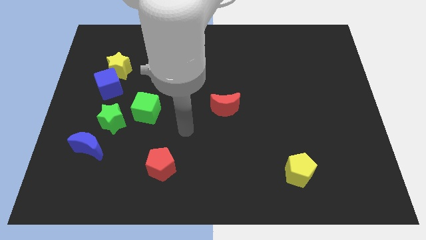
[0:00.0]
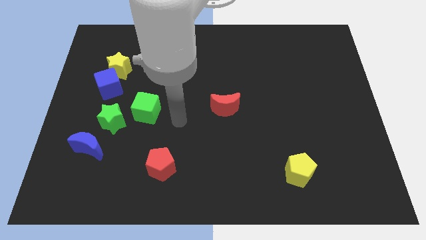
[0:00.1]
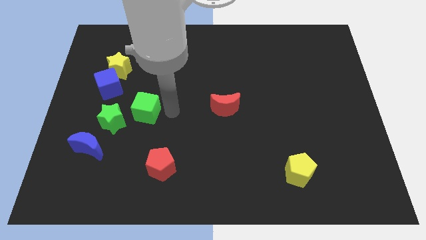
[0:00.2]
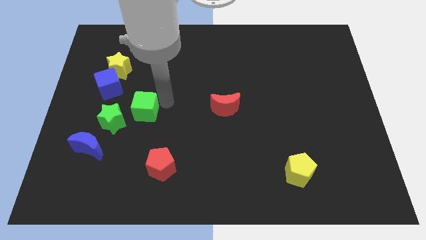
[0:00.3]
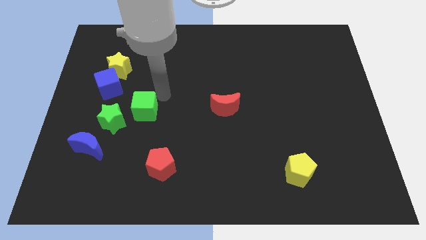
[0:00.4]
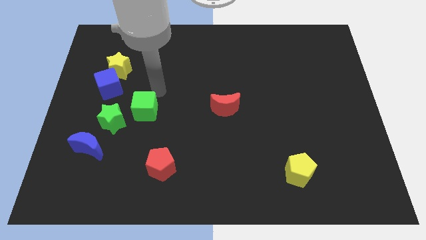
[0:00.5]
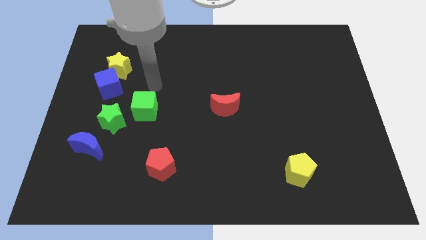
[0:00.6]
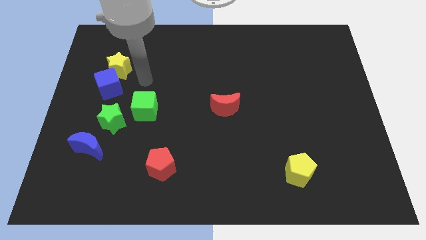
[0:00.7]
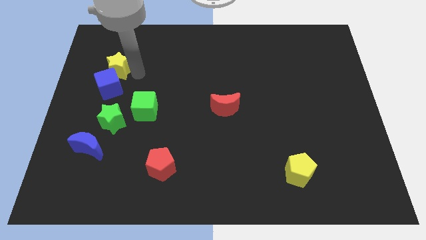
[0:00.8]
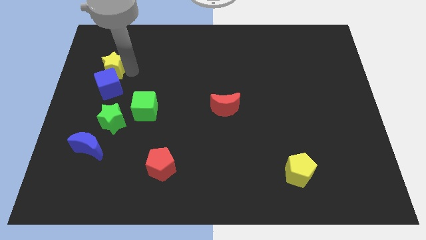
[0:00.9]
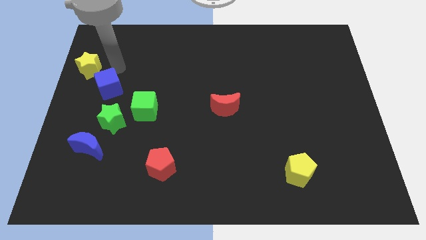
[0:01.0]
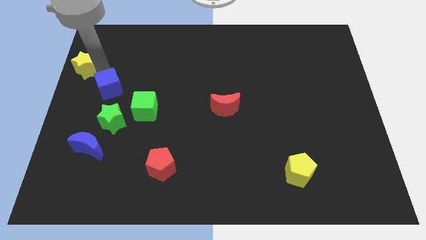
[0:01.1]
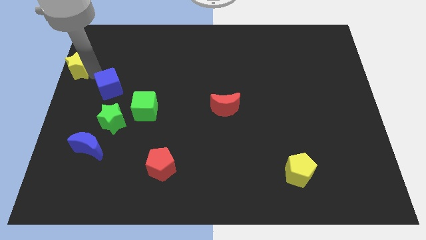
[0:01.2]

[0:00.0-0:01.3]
separate the blue cube from the yellow star

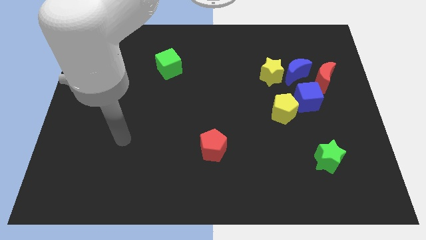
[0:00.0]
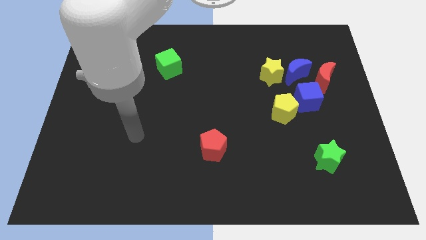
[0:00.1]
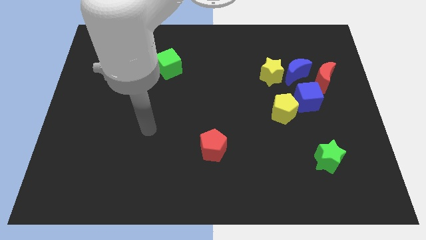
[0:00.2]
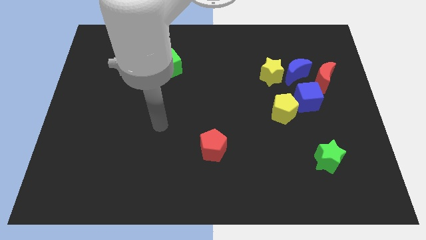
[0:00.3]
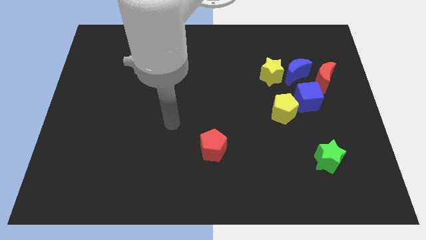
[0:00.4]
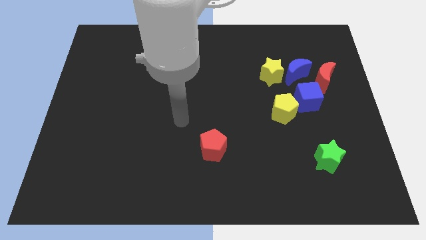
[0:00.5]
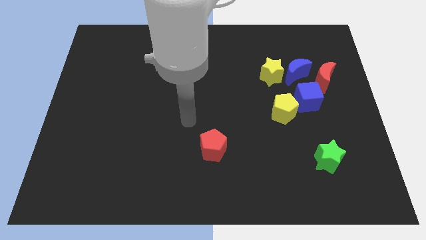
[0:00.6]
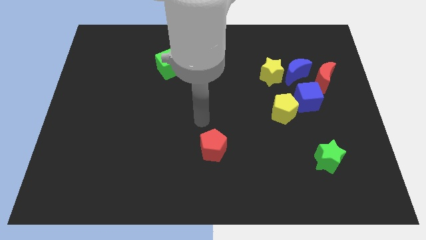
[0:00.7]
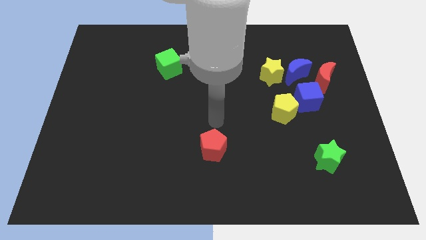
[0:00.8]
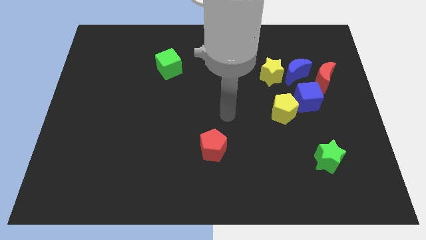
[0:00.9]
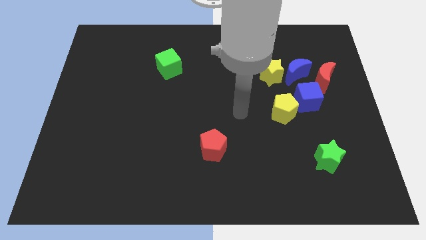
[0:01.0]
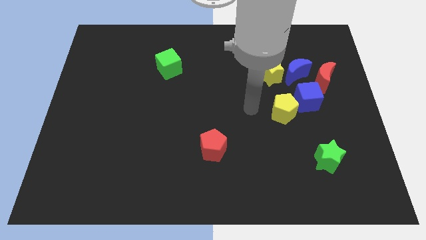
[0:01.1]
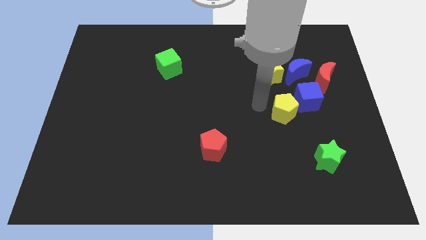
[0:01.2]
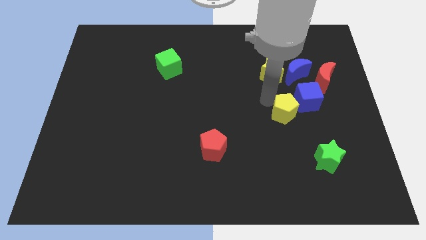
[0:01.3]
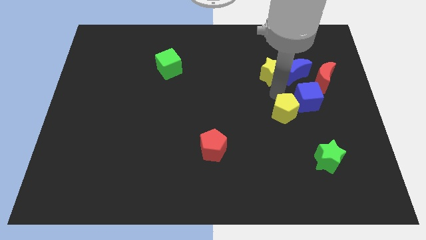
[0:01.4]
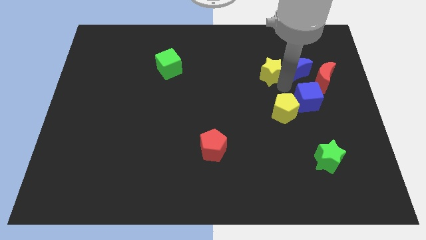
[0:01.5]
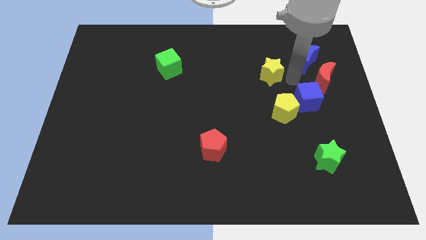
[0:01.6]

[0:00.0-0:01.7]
pull the yellow star apart from the blue moon

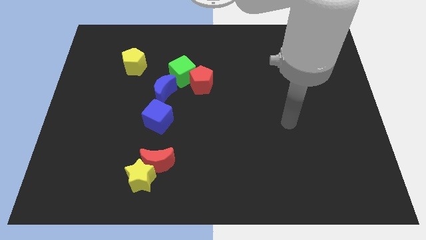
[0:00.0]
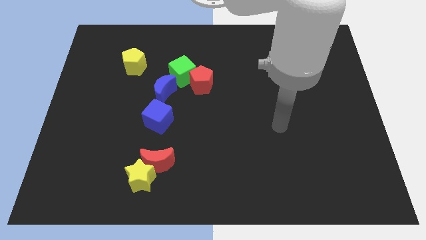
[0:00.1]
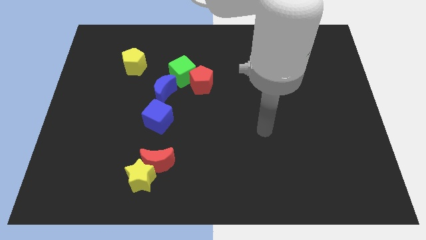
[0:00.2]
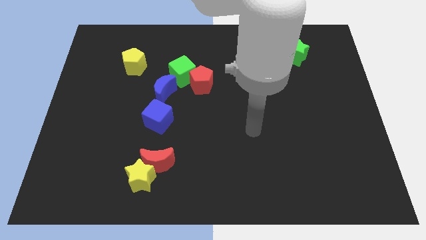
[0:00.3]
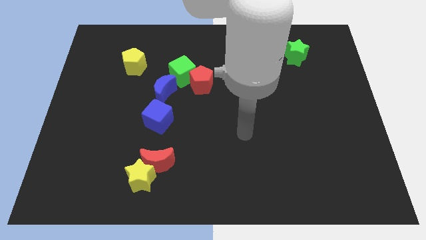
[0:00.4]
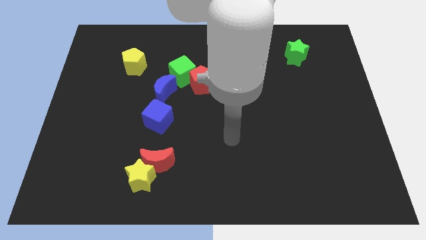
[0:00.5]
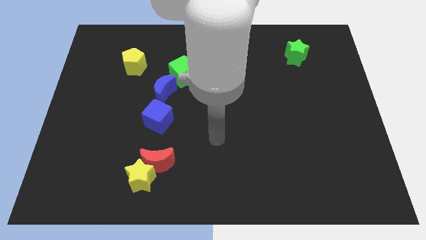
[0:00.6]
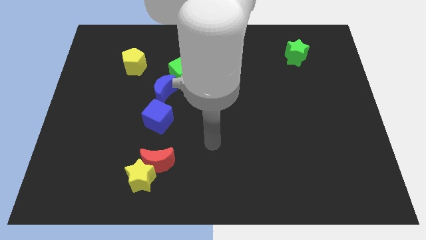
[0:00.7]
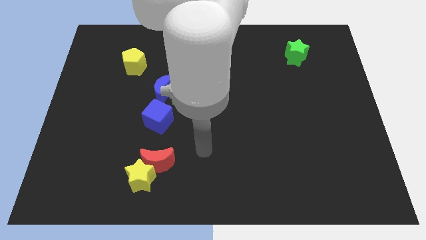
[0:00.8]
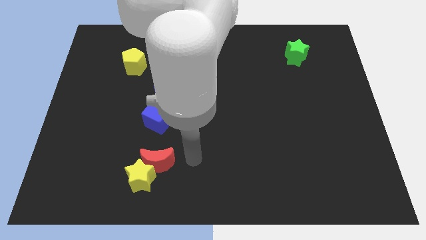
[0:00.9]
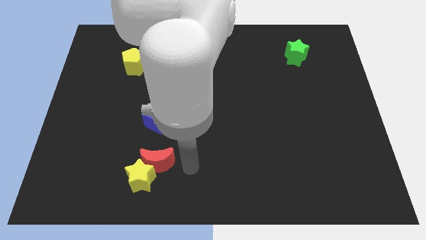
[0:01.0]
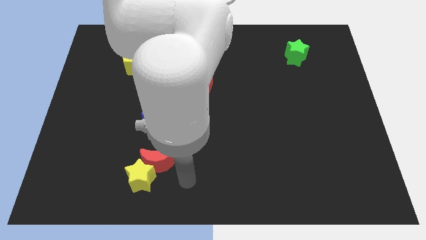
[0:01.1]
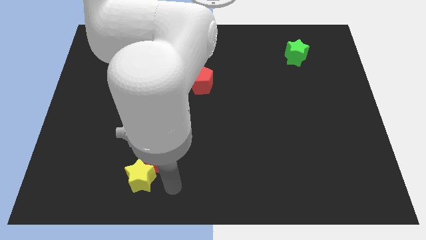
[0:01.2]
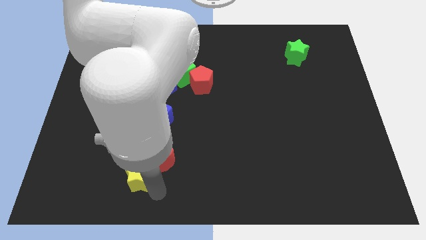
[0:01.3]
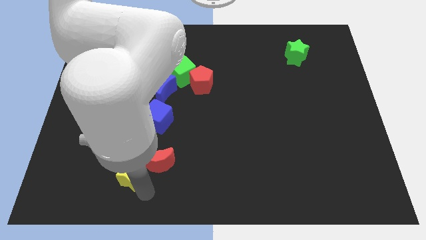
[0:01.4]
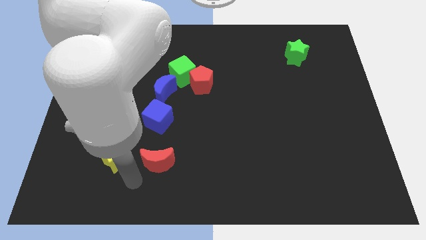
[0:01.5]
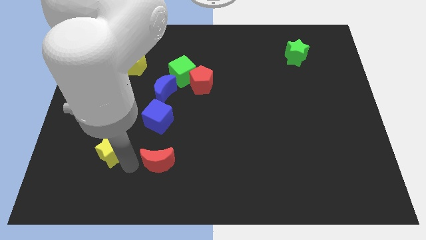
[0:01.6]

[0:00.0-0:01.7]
separate the red moon from the yellow star

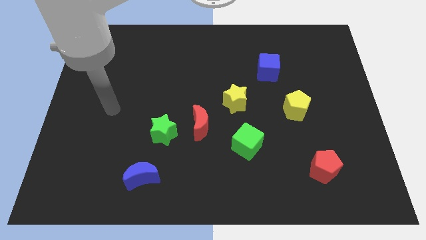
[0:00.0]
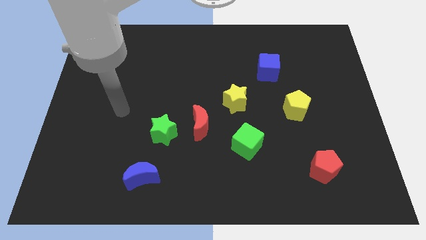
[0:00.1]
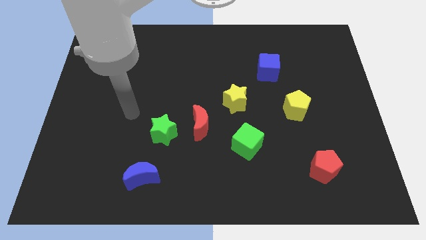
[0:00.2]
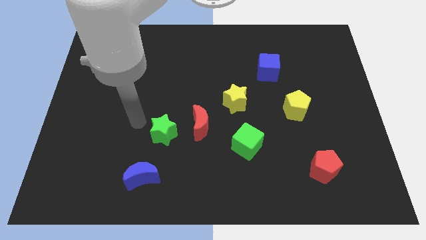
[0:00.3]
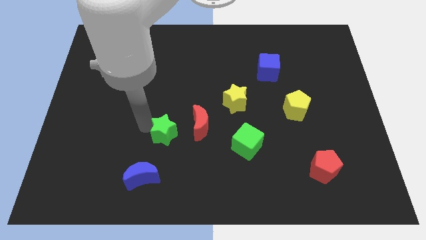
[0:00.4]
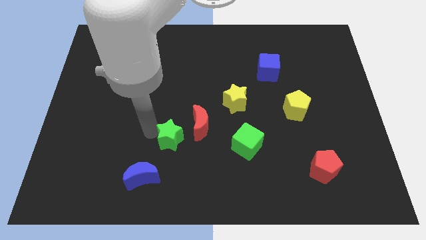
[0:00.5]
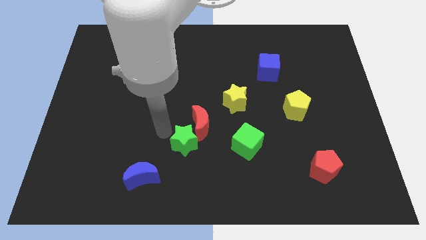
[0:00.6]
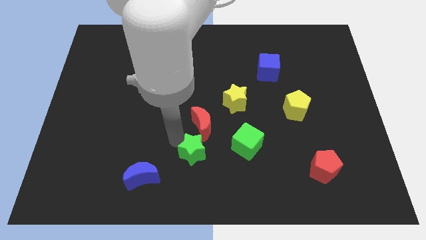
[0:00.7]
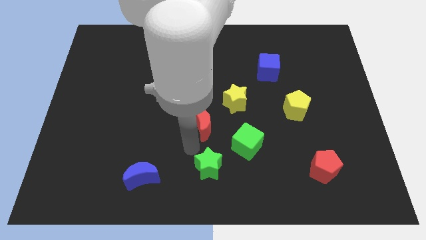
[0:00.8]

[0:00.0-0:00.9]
separate the red moon from the green star

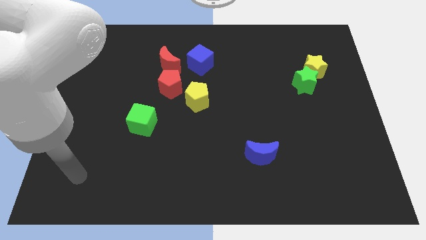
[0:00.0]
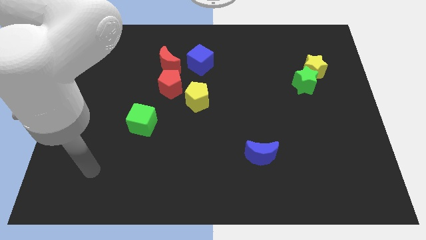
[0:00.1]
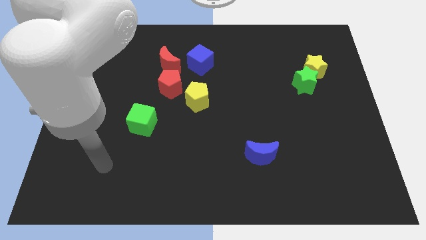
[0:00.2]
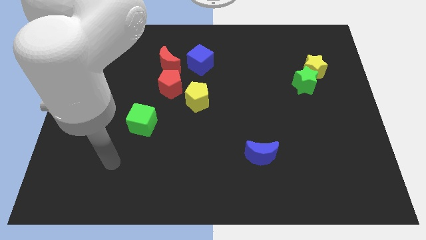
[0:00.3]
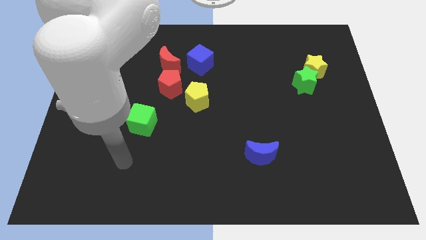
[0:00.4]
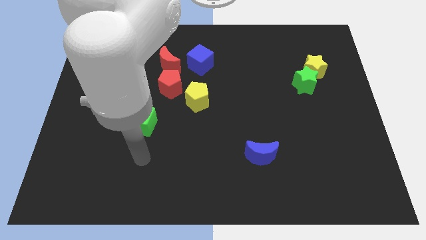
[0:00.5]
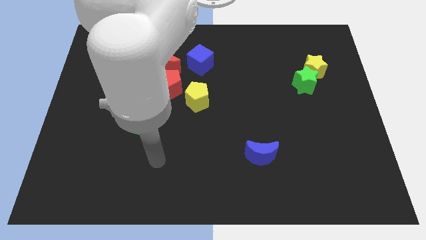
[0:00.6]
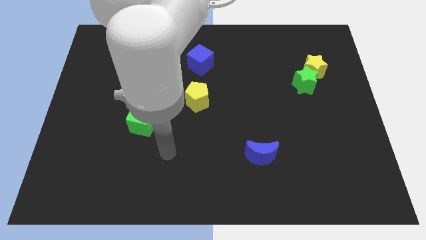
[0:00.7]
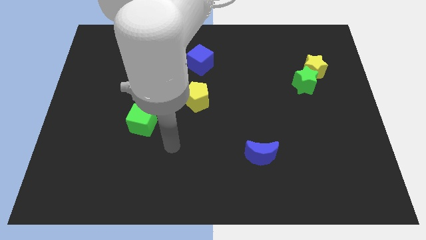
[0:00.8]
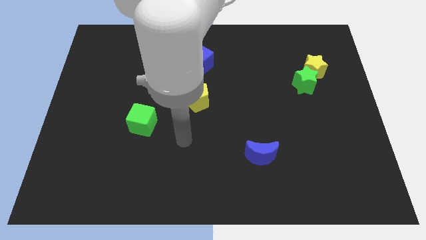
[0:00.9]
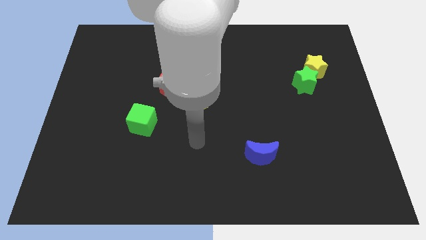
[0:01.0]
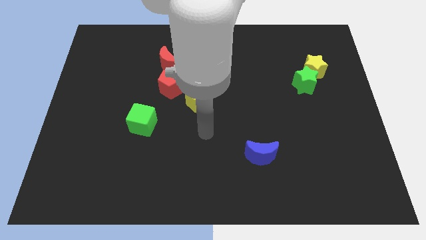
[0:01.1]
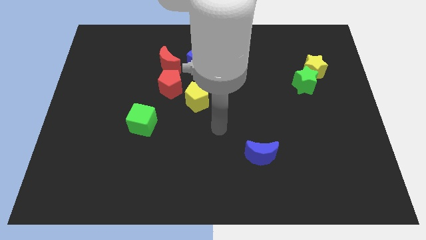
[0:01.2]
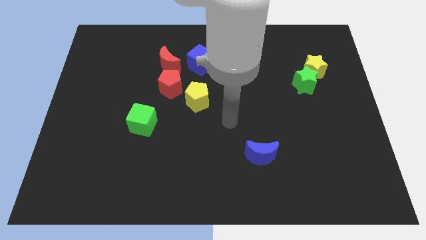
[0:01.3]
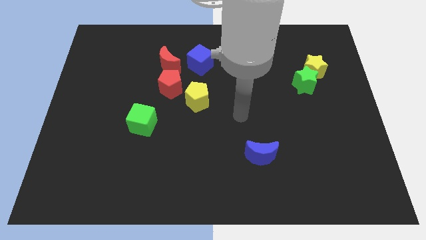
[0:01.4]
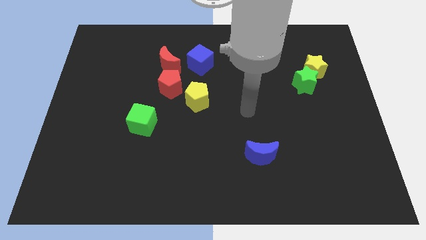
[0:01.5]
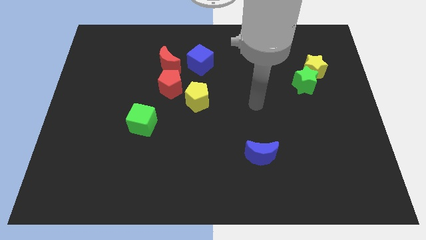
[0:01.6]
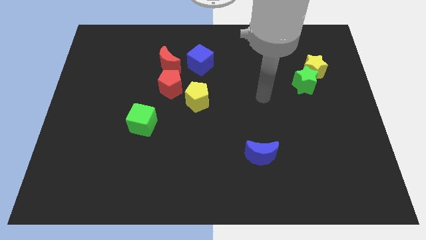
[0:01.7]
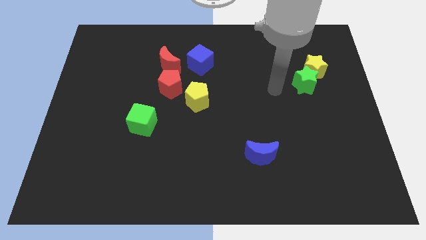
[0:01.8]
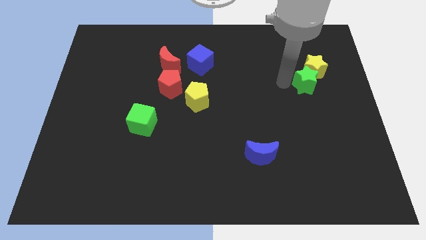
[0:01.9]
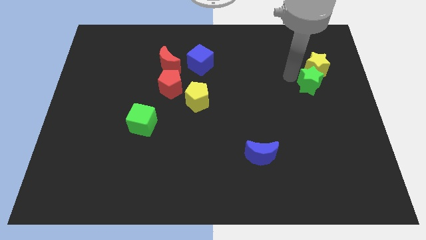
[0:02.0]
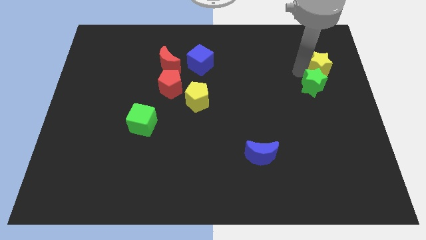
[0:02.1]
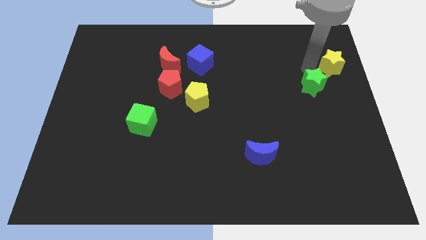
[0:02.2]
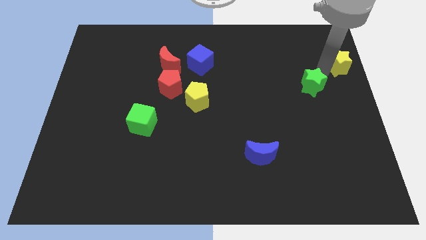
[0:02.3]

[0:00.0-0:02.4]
separate the green star from the yellow star

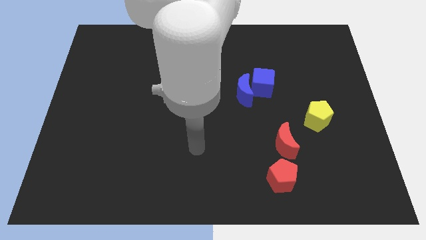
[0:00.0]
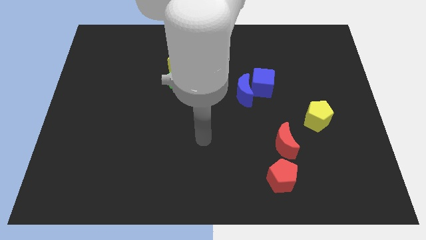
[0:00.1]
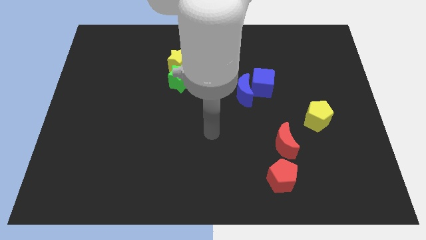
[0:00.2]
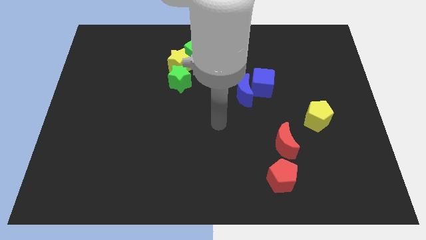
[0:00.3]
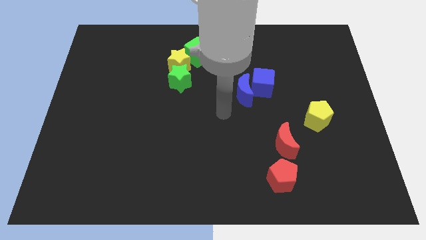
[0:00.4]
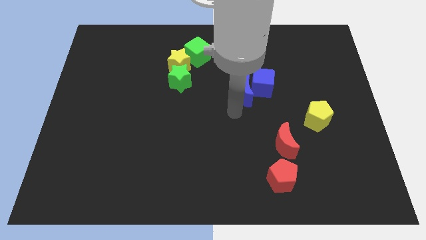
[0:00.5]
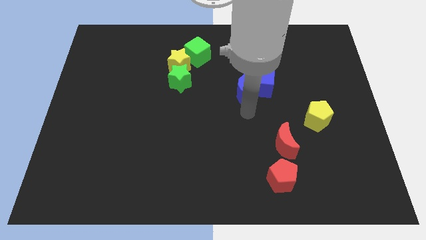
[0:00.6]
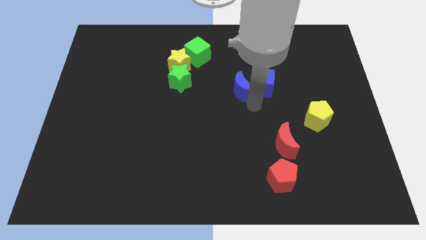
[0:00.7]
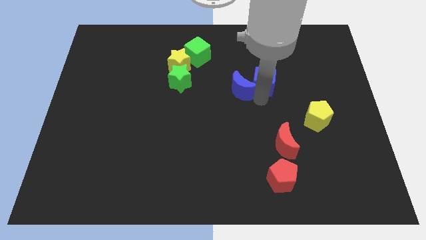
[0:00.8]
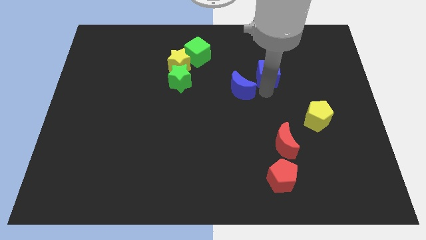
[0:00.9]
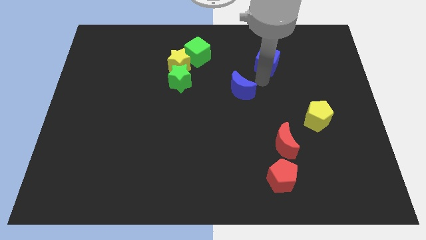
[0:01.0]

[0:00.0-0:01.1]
separate the blue moon from the blue cube
